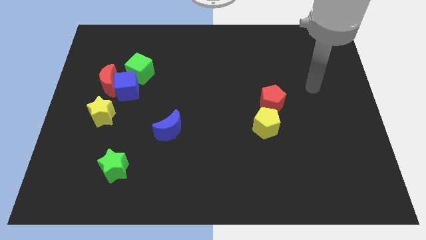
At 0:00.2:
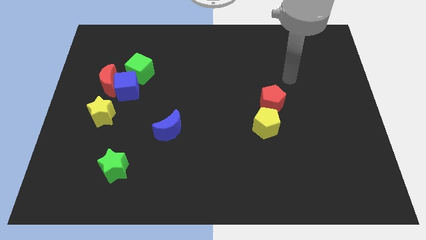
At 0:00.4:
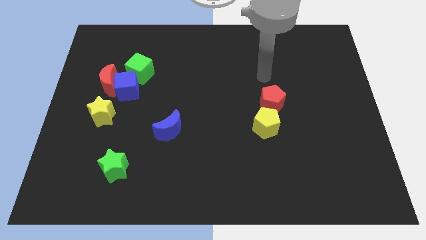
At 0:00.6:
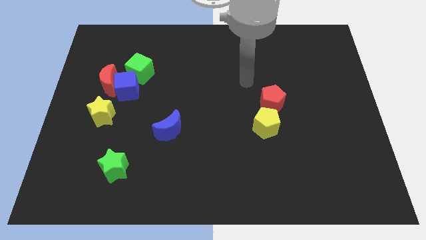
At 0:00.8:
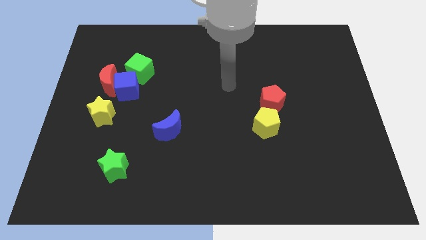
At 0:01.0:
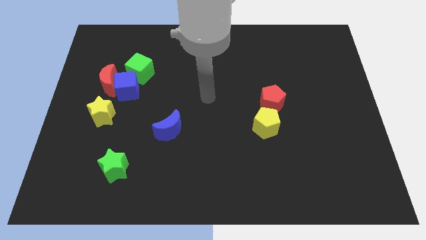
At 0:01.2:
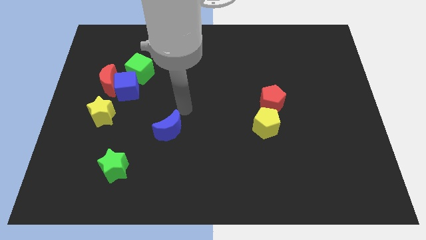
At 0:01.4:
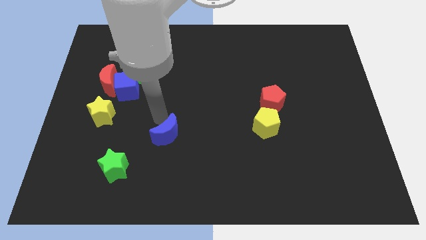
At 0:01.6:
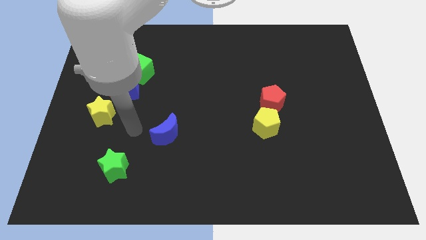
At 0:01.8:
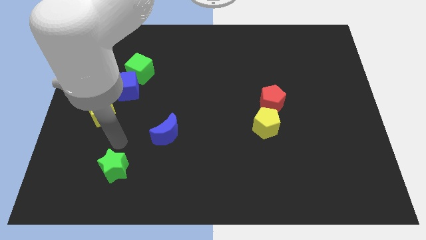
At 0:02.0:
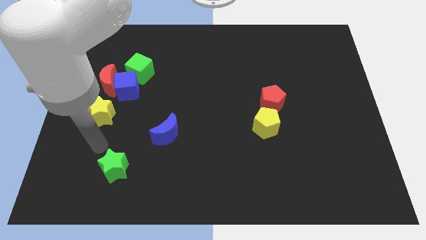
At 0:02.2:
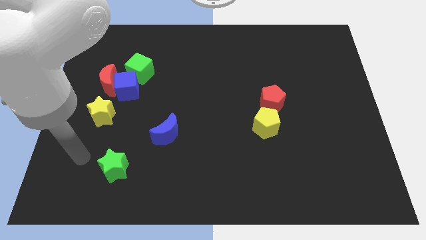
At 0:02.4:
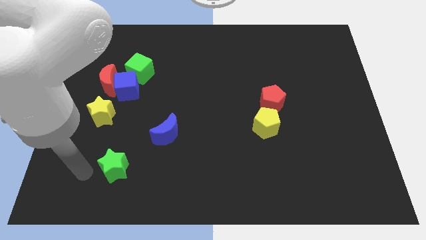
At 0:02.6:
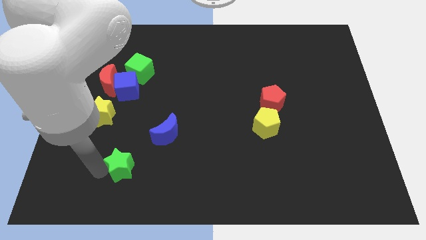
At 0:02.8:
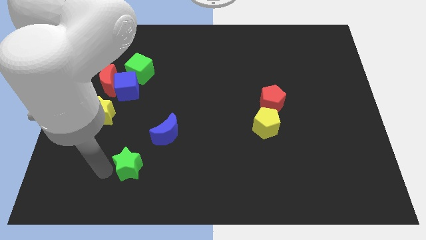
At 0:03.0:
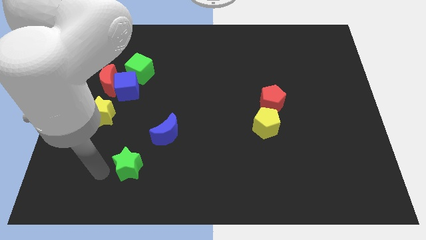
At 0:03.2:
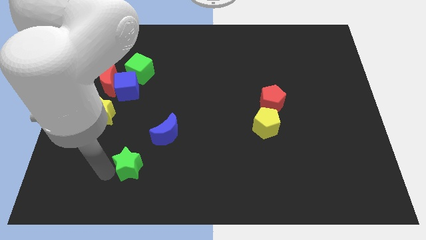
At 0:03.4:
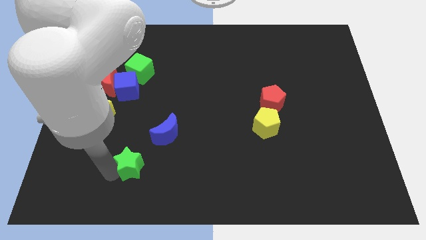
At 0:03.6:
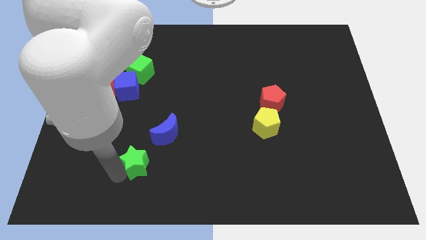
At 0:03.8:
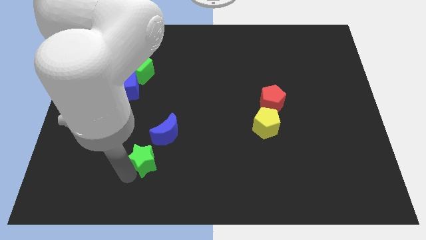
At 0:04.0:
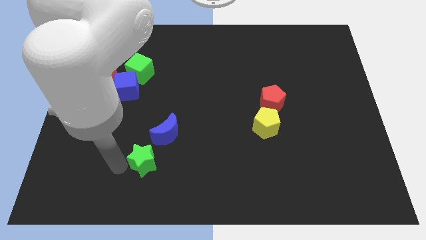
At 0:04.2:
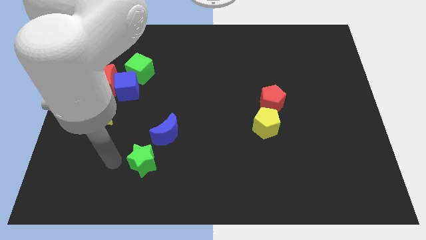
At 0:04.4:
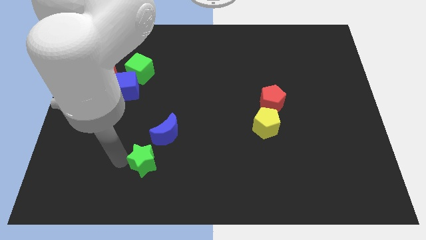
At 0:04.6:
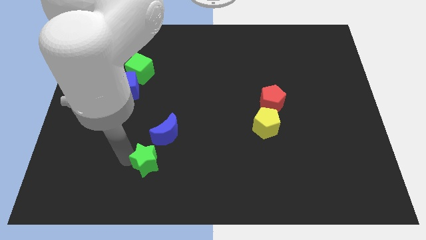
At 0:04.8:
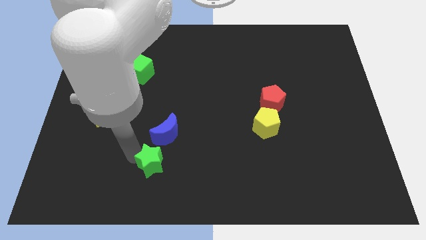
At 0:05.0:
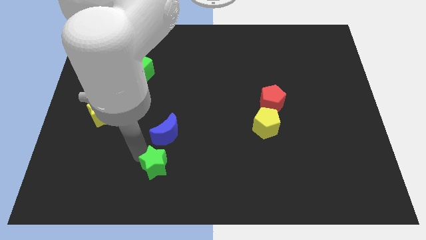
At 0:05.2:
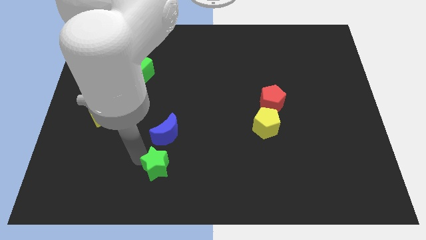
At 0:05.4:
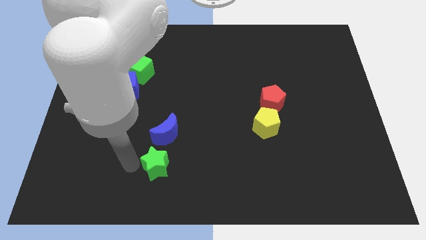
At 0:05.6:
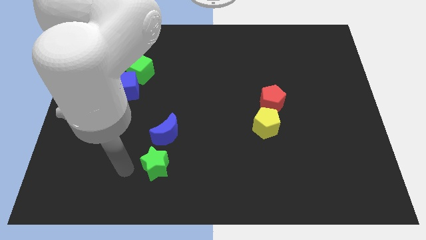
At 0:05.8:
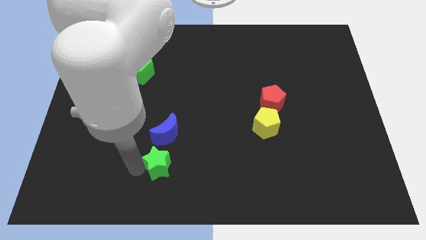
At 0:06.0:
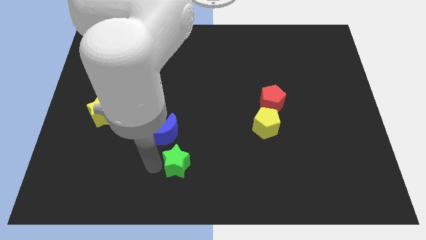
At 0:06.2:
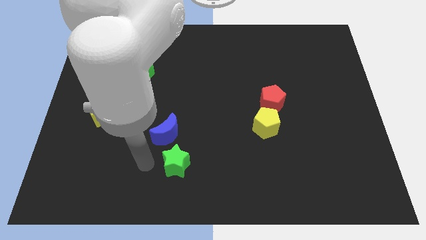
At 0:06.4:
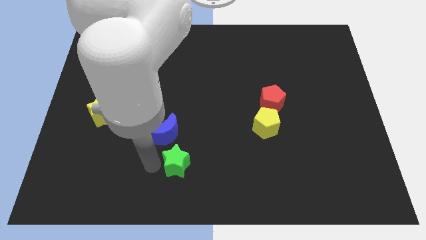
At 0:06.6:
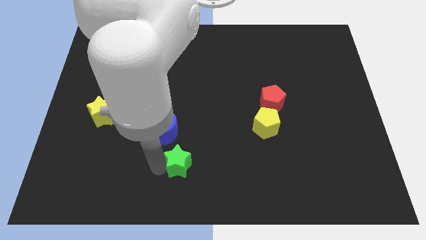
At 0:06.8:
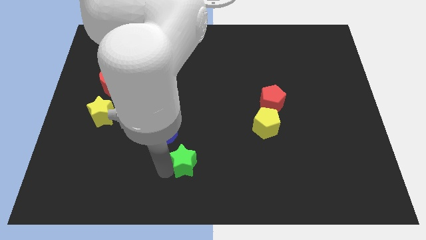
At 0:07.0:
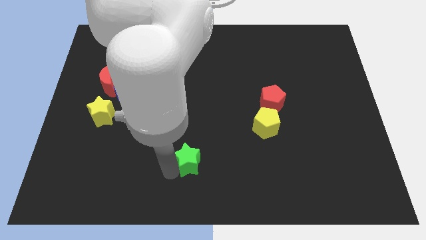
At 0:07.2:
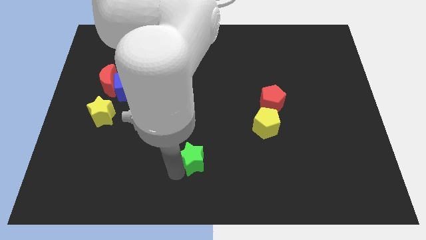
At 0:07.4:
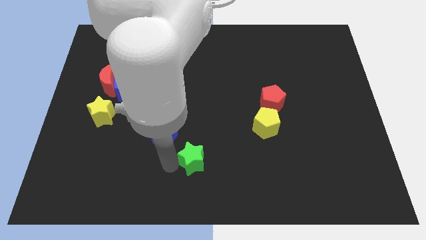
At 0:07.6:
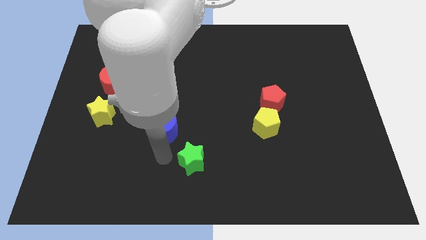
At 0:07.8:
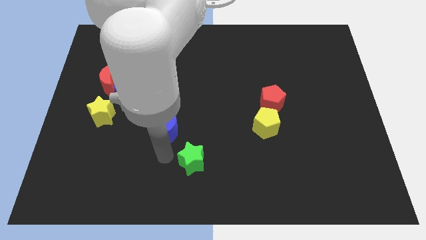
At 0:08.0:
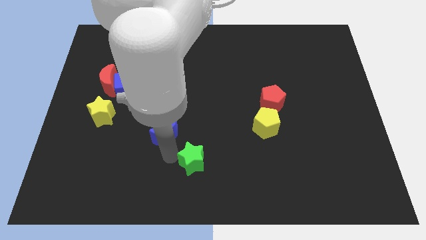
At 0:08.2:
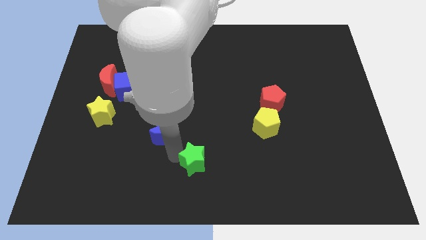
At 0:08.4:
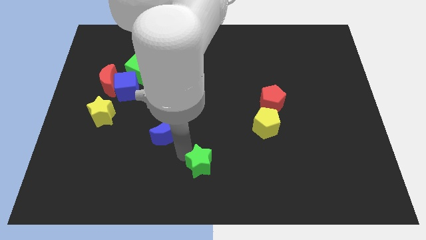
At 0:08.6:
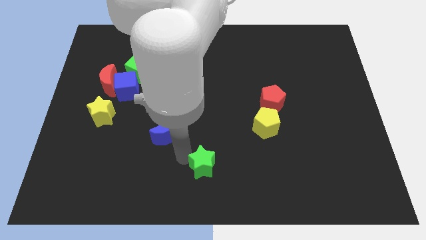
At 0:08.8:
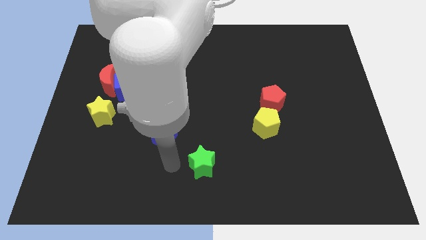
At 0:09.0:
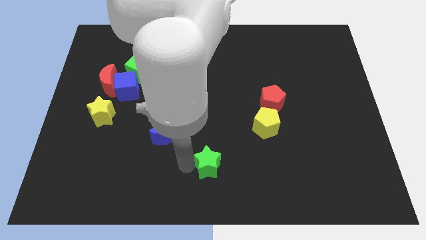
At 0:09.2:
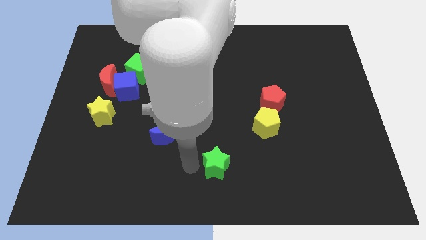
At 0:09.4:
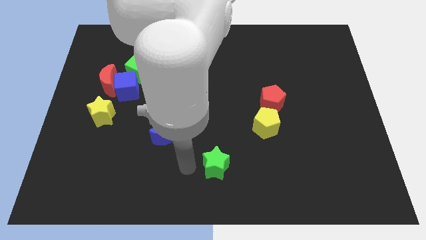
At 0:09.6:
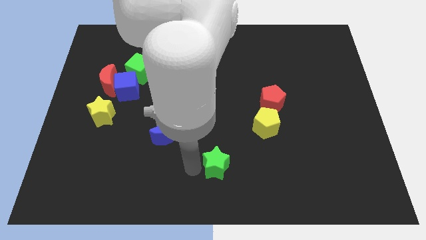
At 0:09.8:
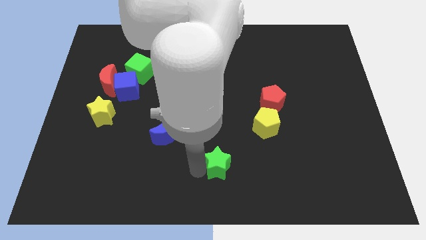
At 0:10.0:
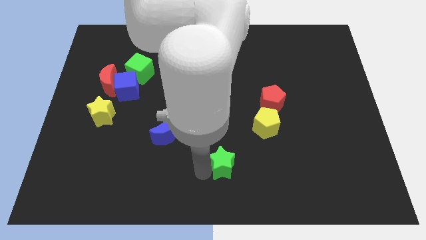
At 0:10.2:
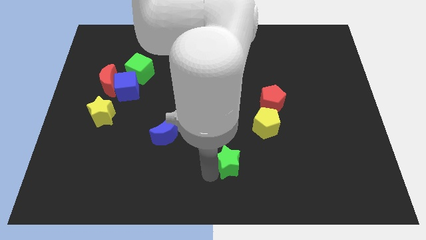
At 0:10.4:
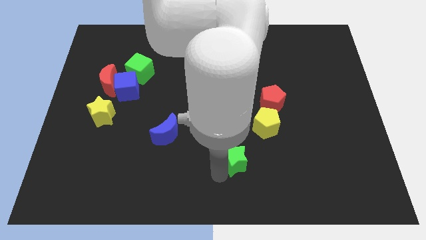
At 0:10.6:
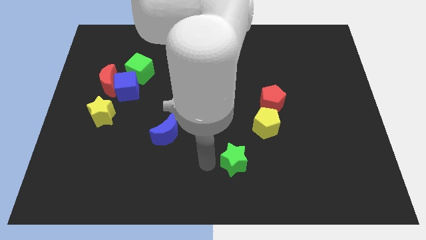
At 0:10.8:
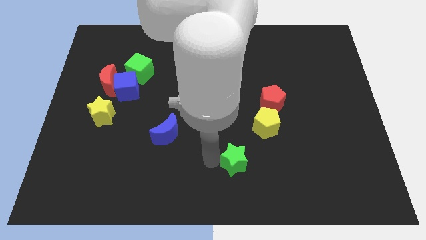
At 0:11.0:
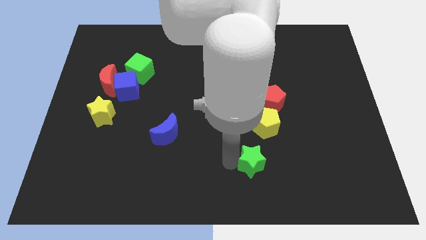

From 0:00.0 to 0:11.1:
push the green star below the yellow pentagon

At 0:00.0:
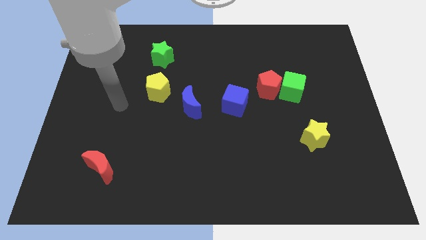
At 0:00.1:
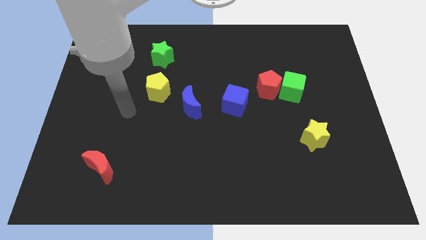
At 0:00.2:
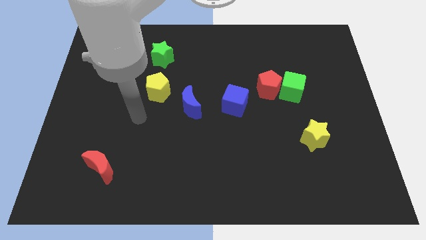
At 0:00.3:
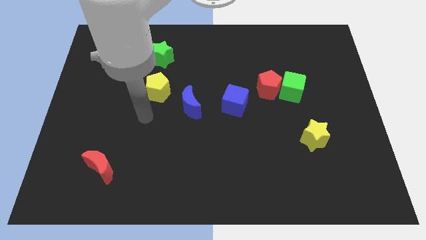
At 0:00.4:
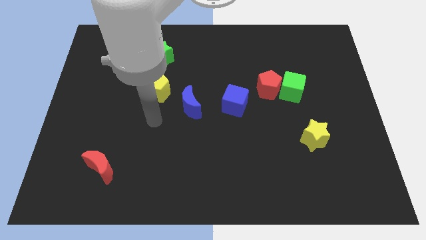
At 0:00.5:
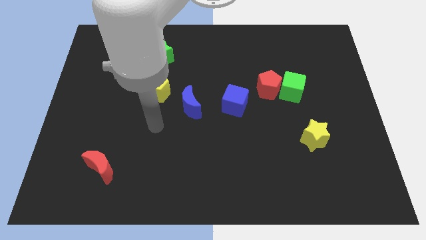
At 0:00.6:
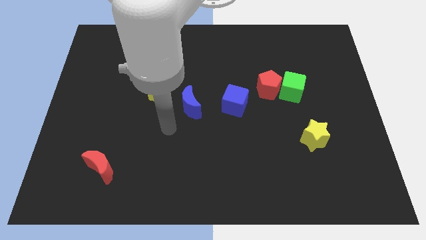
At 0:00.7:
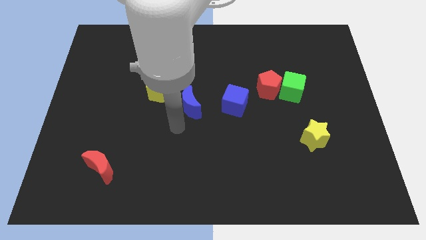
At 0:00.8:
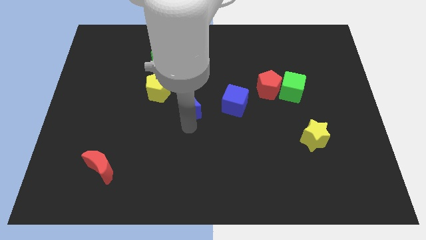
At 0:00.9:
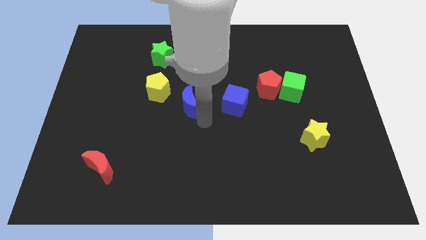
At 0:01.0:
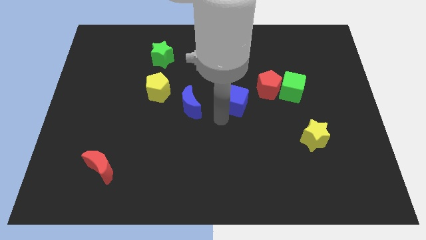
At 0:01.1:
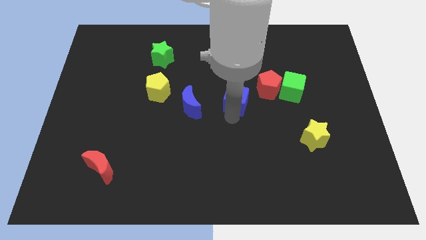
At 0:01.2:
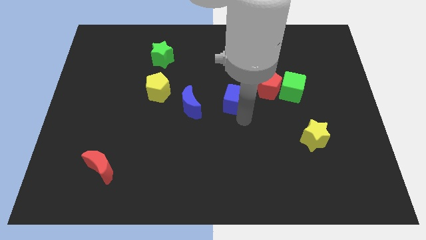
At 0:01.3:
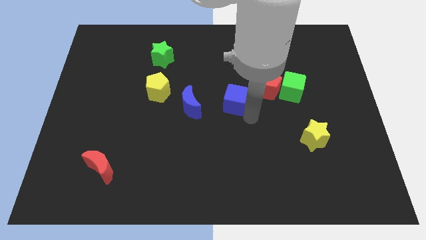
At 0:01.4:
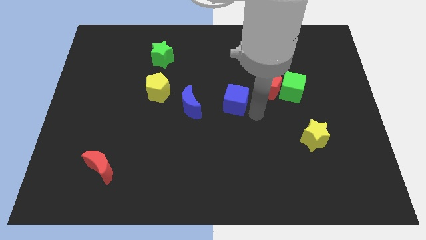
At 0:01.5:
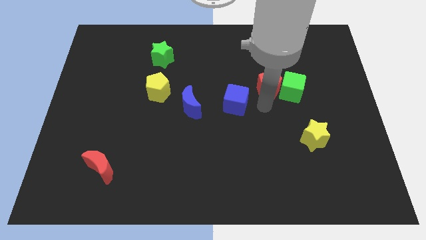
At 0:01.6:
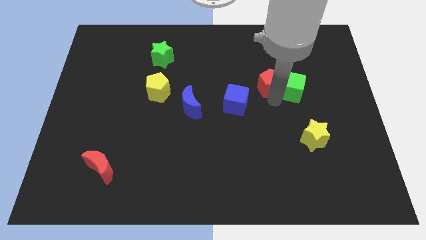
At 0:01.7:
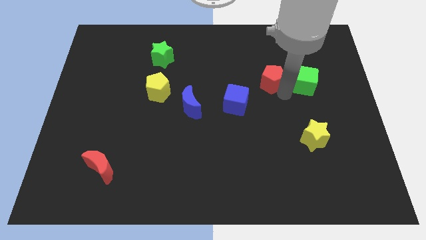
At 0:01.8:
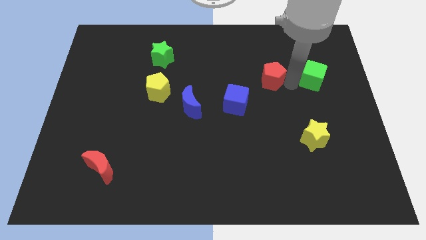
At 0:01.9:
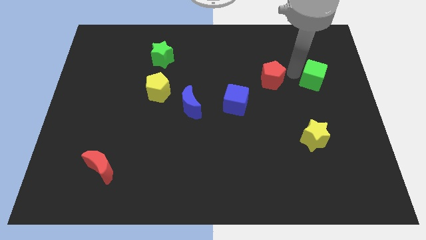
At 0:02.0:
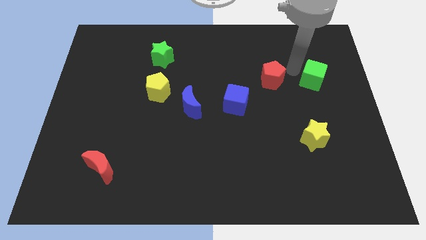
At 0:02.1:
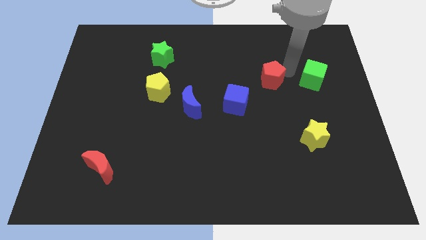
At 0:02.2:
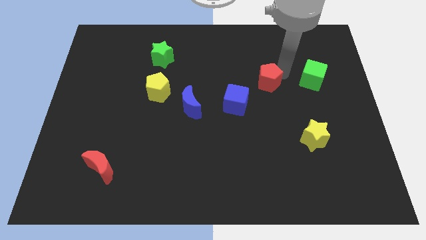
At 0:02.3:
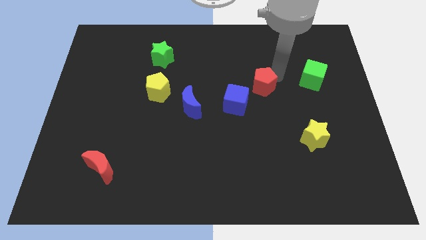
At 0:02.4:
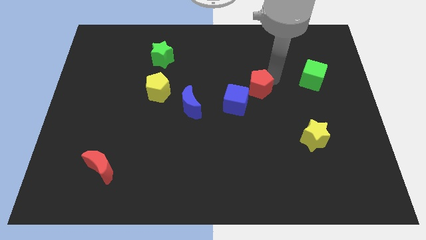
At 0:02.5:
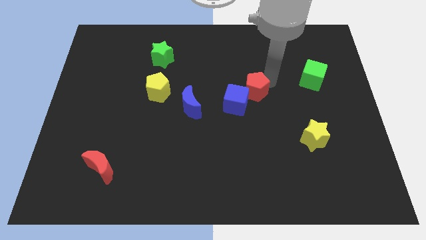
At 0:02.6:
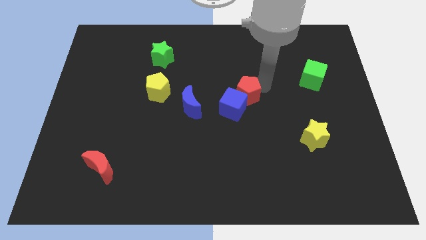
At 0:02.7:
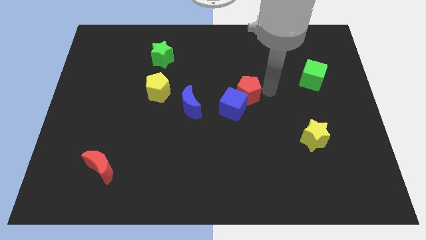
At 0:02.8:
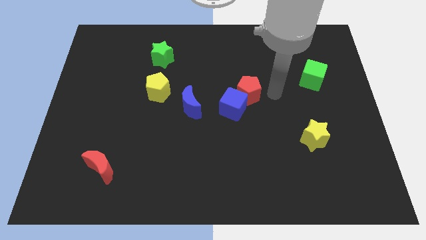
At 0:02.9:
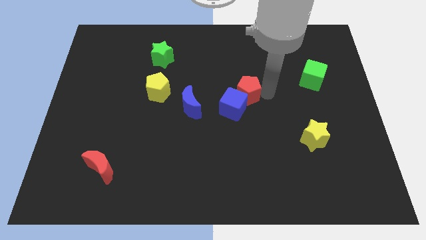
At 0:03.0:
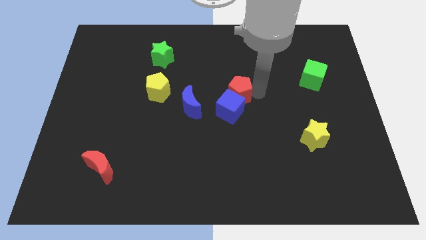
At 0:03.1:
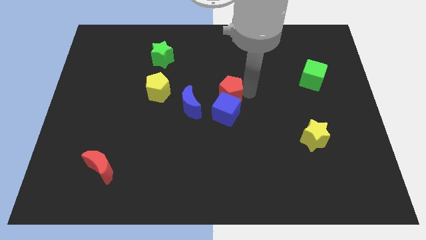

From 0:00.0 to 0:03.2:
push the red pentagon to the top left side of the blue cube
